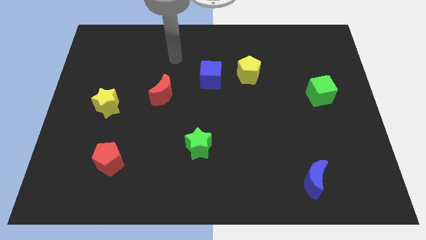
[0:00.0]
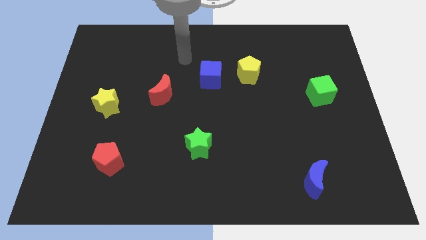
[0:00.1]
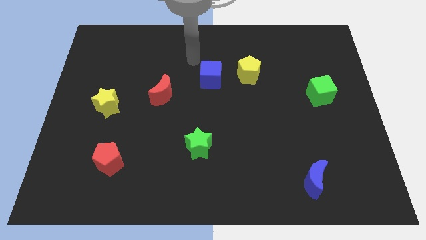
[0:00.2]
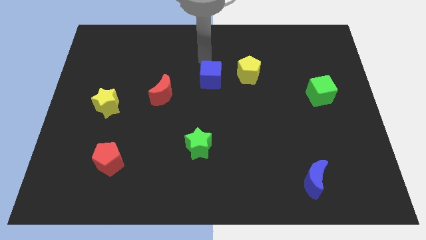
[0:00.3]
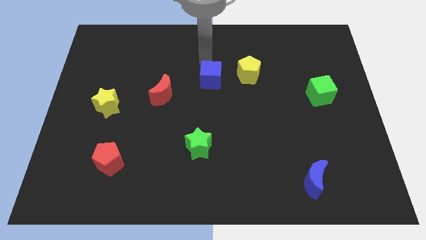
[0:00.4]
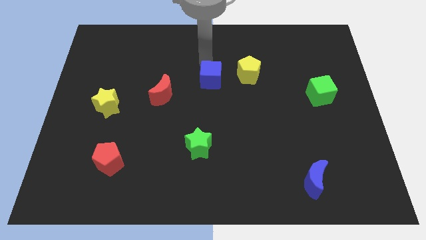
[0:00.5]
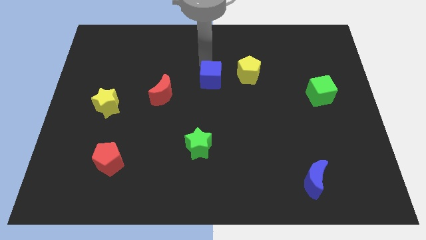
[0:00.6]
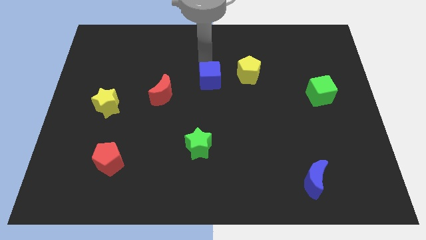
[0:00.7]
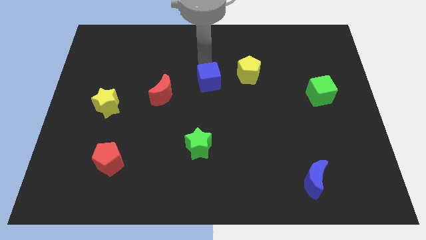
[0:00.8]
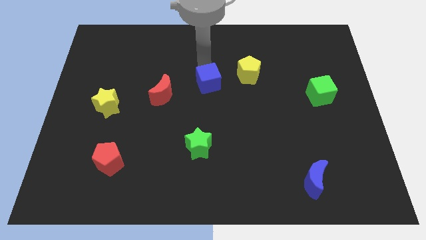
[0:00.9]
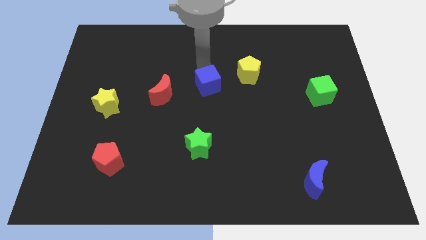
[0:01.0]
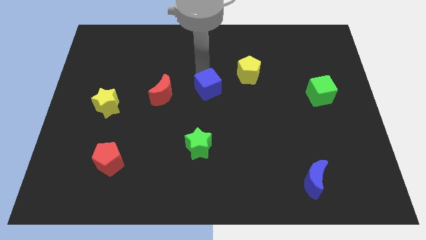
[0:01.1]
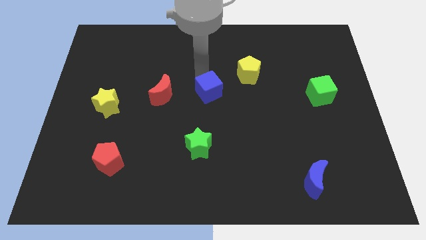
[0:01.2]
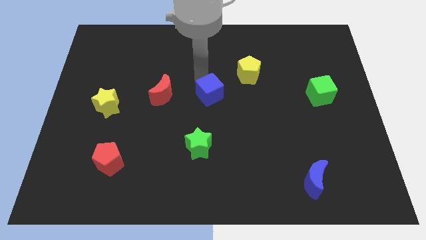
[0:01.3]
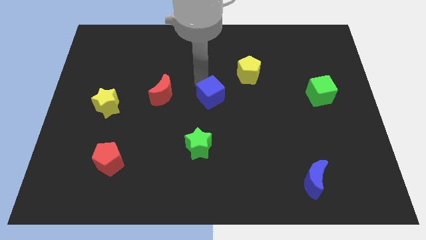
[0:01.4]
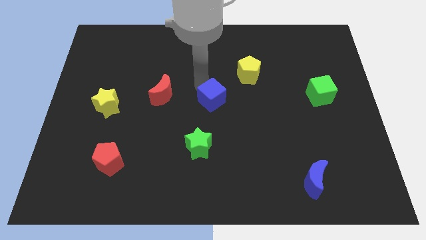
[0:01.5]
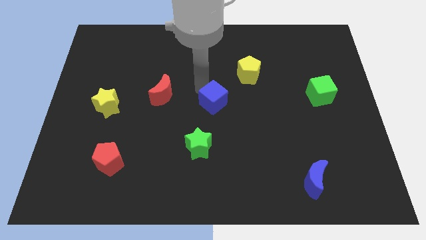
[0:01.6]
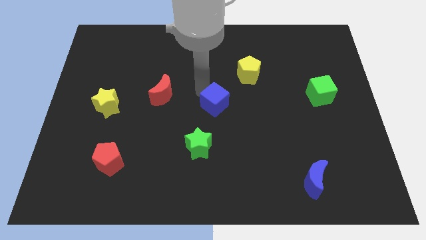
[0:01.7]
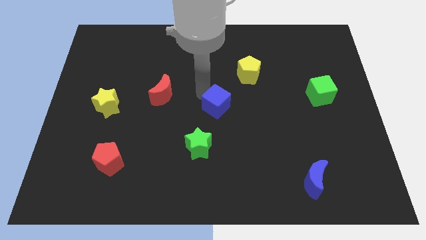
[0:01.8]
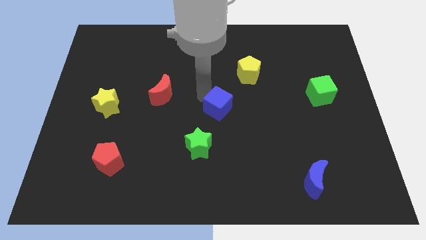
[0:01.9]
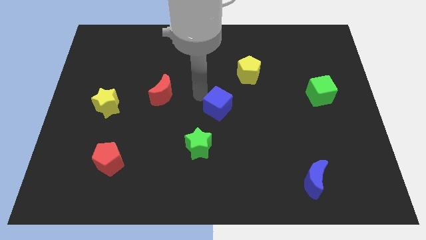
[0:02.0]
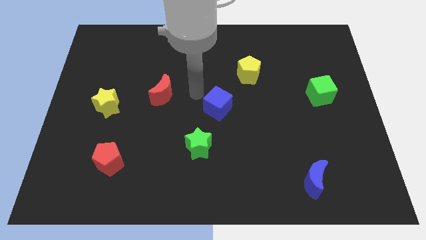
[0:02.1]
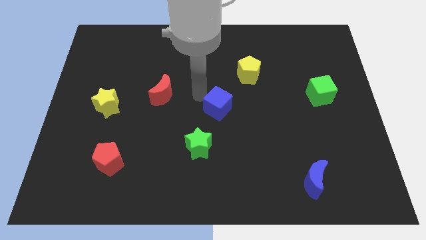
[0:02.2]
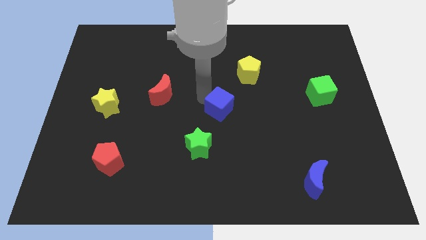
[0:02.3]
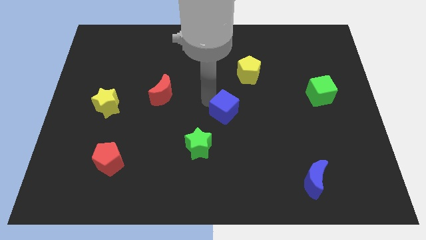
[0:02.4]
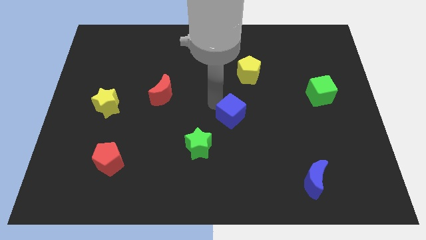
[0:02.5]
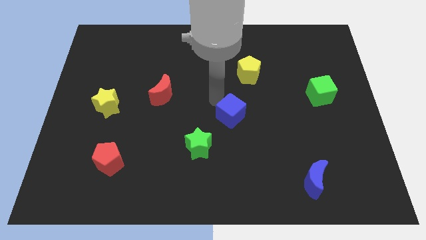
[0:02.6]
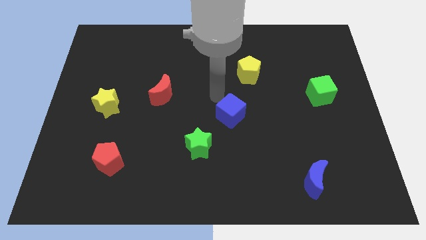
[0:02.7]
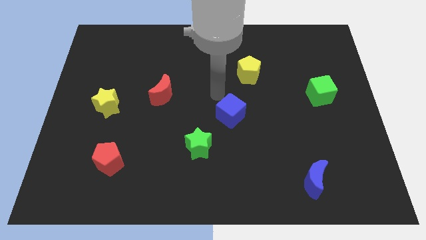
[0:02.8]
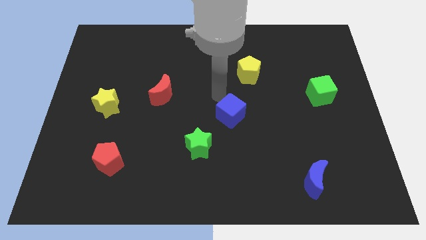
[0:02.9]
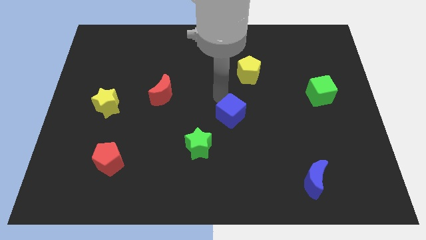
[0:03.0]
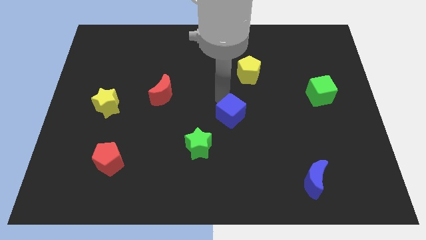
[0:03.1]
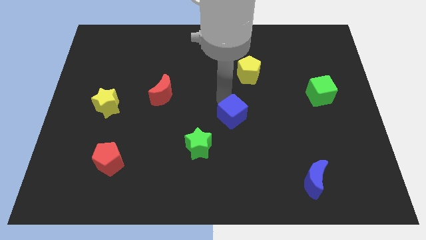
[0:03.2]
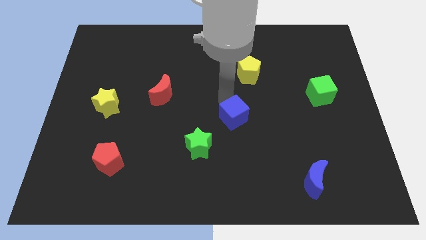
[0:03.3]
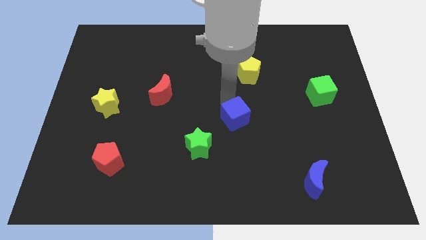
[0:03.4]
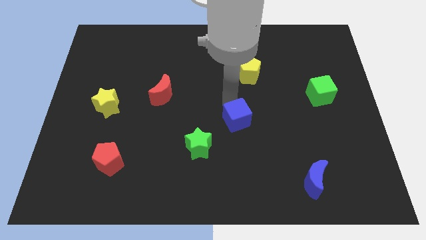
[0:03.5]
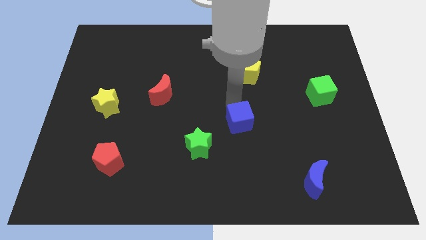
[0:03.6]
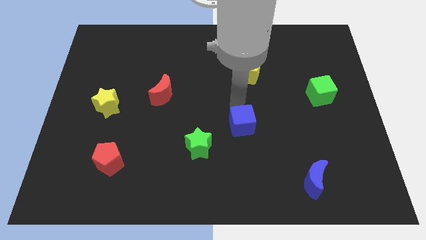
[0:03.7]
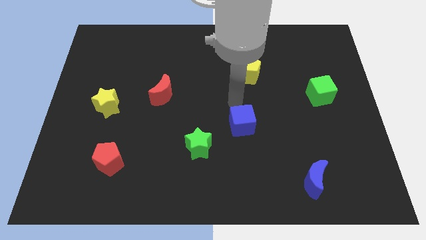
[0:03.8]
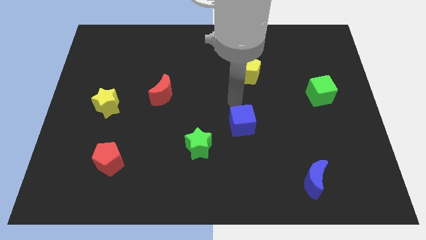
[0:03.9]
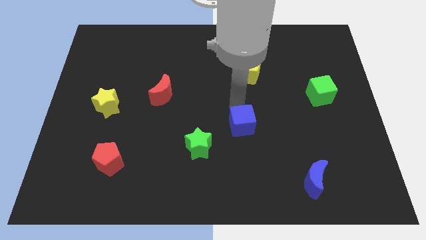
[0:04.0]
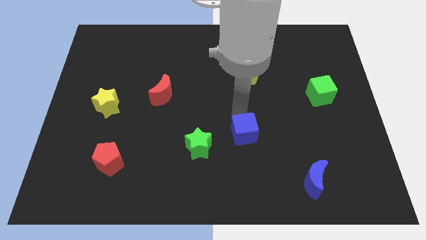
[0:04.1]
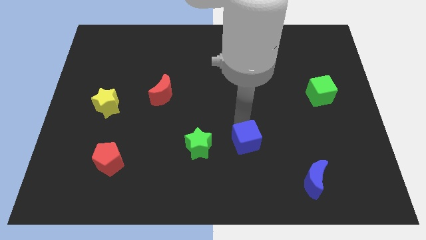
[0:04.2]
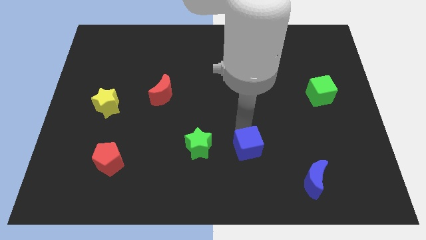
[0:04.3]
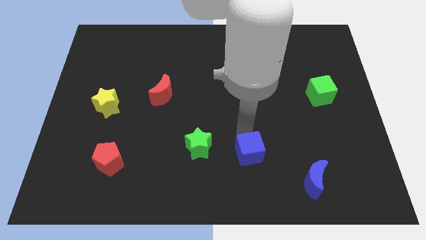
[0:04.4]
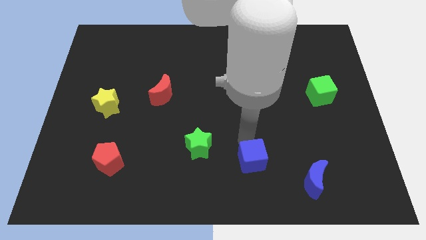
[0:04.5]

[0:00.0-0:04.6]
push the blue cube left of the blue moon

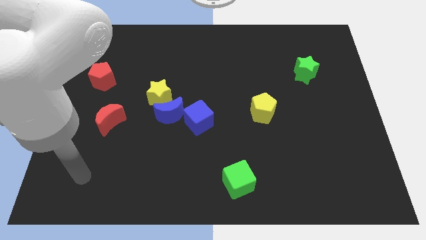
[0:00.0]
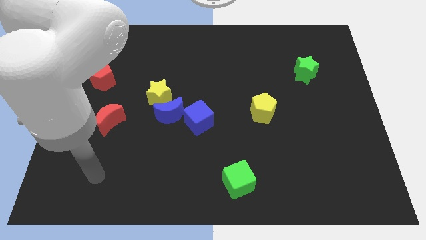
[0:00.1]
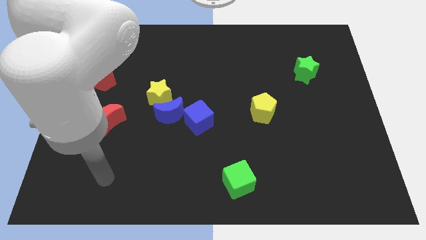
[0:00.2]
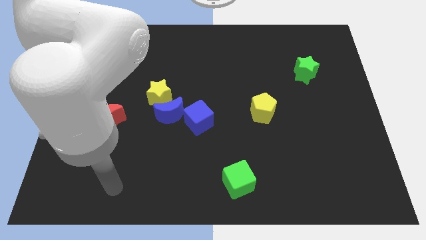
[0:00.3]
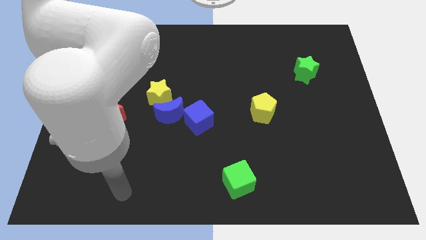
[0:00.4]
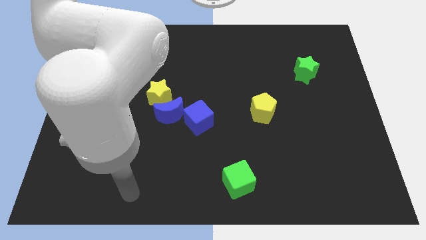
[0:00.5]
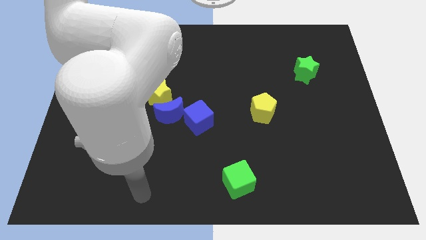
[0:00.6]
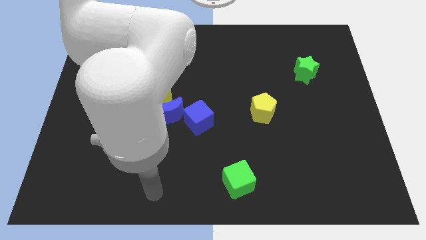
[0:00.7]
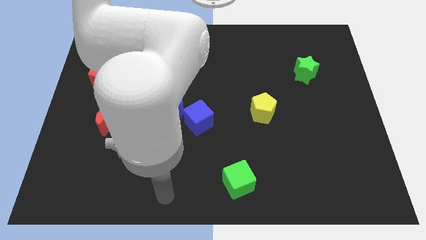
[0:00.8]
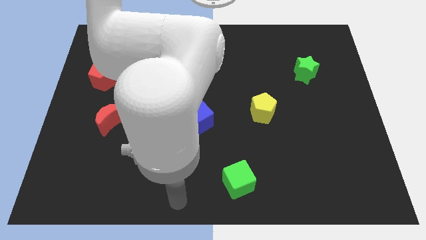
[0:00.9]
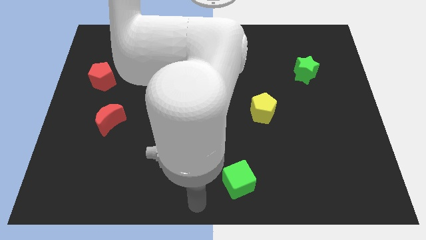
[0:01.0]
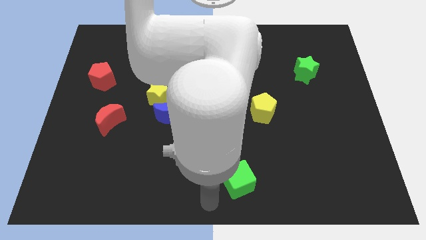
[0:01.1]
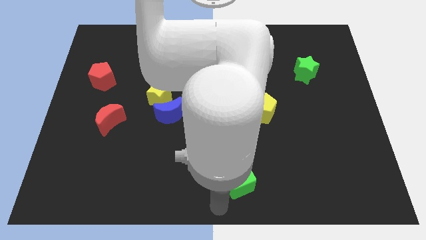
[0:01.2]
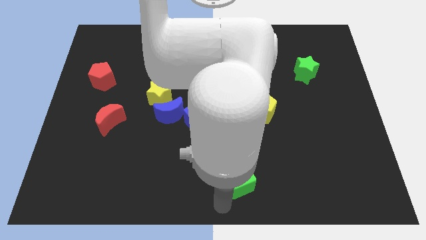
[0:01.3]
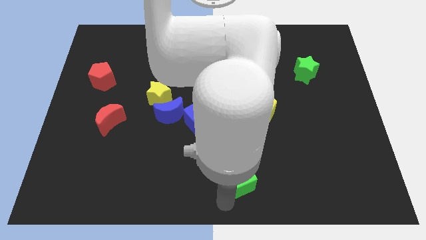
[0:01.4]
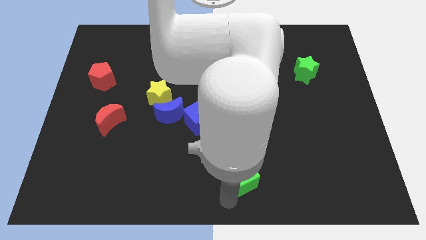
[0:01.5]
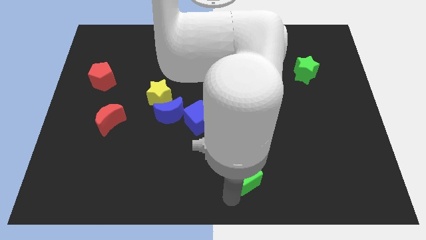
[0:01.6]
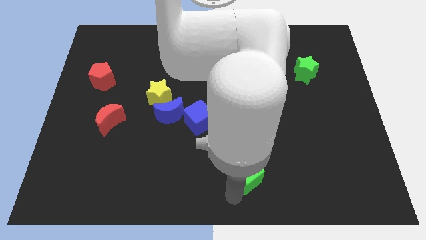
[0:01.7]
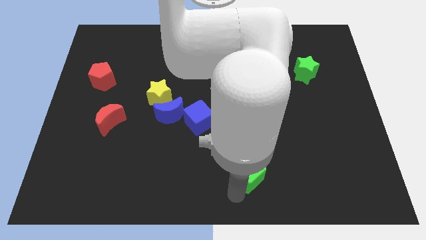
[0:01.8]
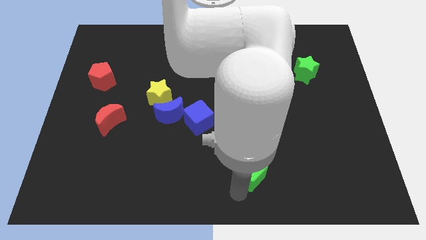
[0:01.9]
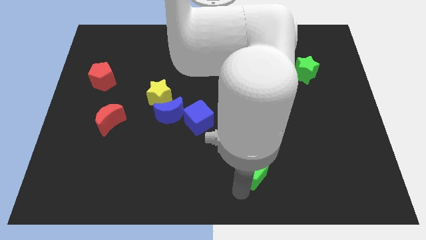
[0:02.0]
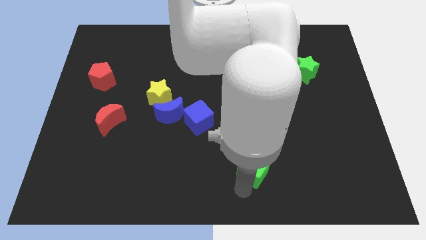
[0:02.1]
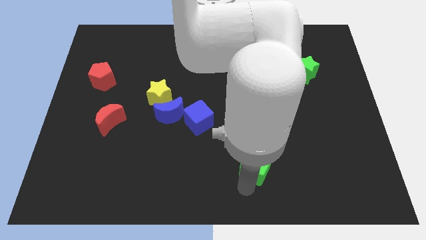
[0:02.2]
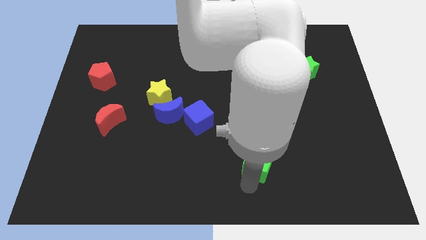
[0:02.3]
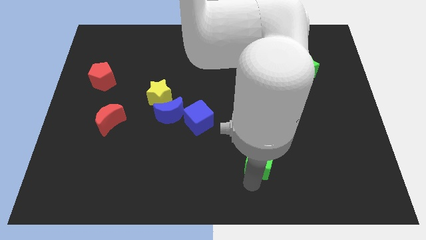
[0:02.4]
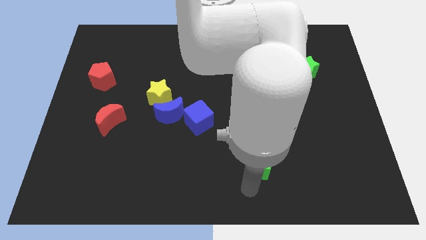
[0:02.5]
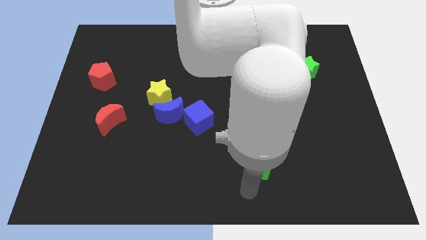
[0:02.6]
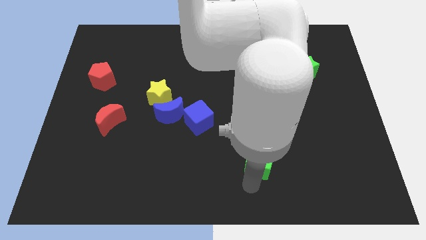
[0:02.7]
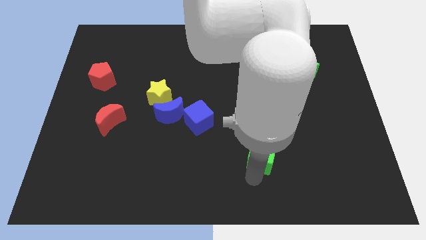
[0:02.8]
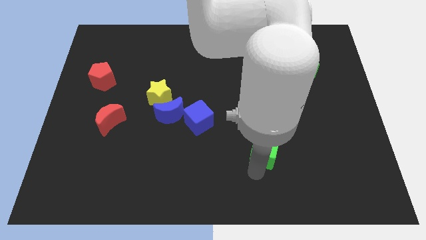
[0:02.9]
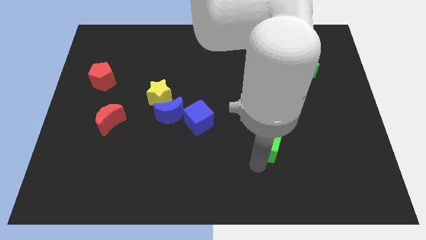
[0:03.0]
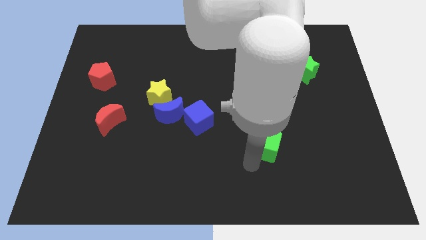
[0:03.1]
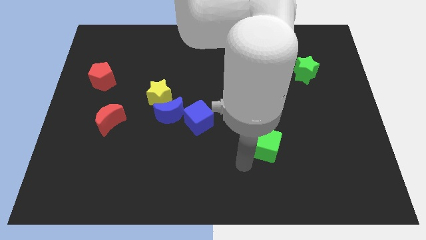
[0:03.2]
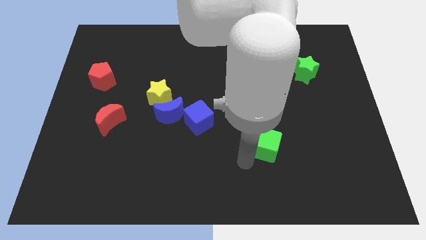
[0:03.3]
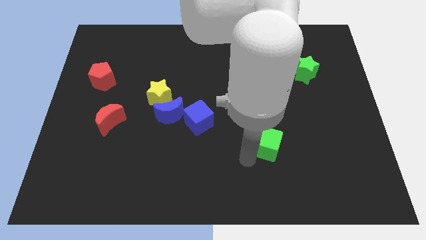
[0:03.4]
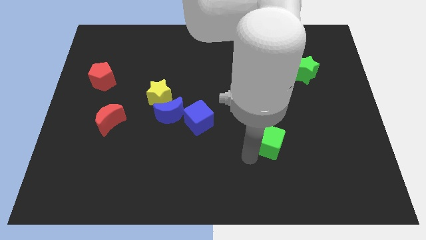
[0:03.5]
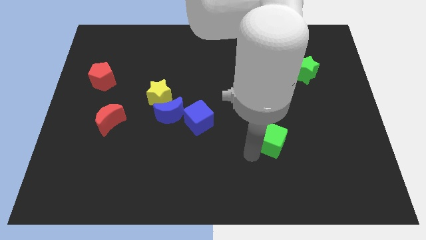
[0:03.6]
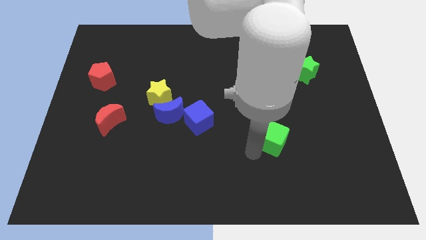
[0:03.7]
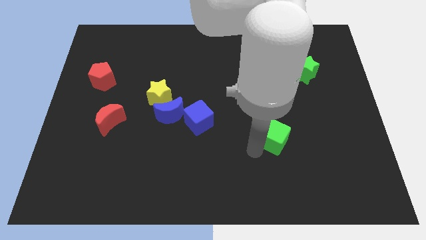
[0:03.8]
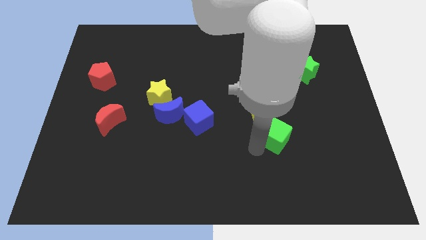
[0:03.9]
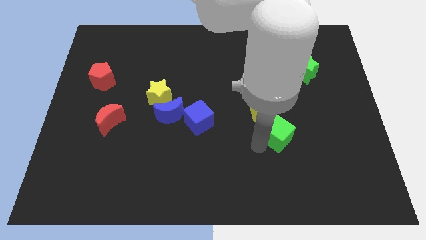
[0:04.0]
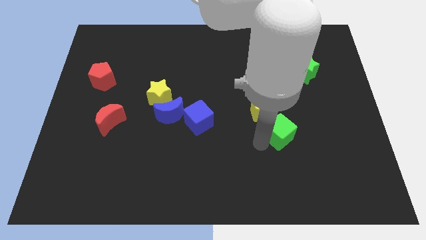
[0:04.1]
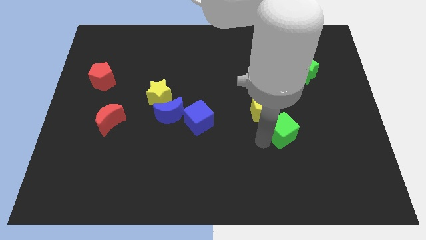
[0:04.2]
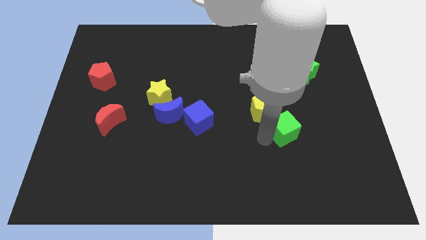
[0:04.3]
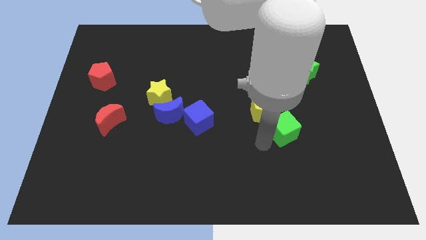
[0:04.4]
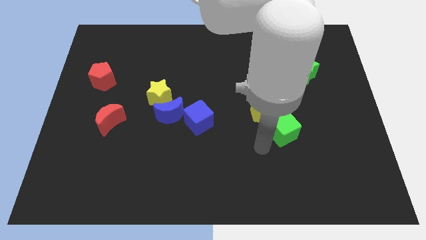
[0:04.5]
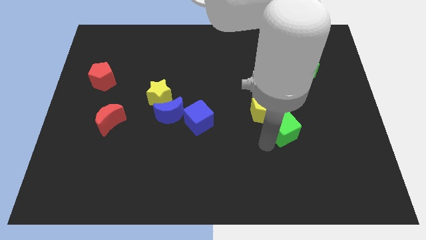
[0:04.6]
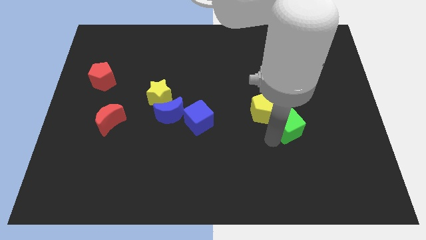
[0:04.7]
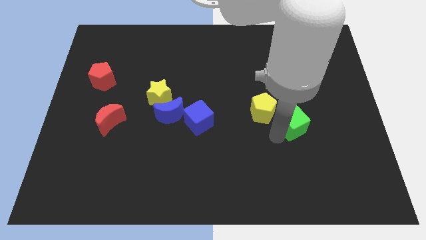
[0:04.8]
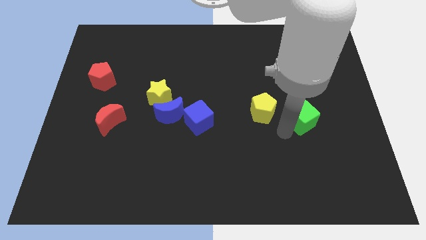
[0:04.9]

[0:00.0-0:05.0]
move the green cube to the bottom side of the green star
